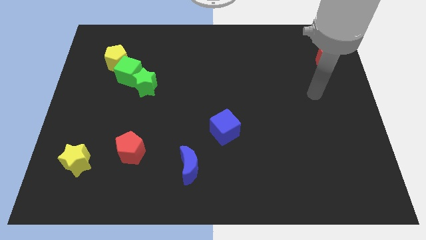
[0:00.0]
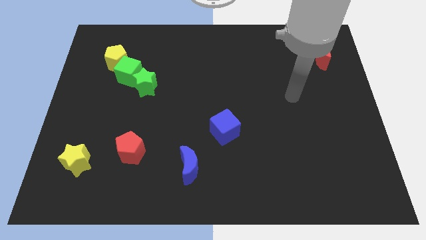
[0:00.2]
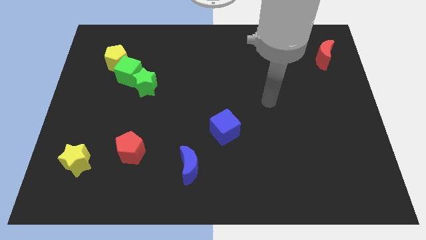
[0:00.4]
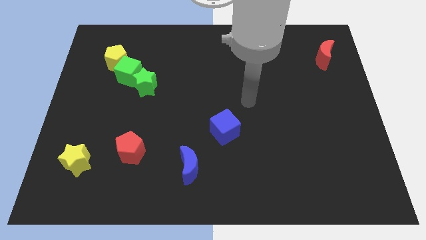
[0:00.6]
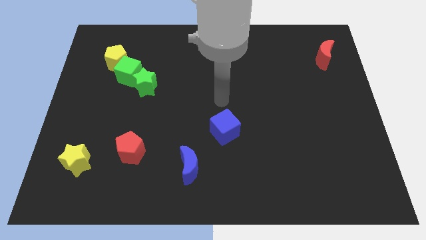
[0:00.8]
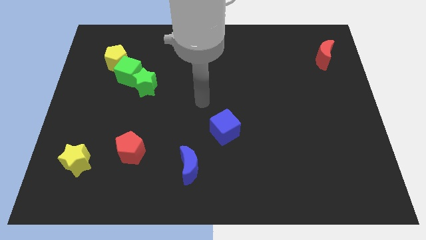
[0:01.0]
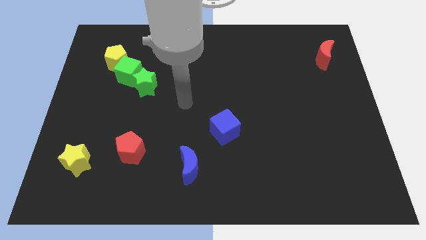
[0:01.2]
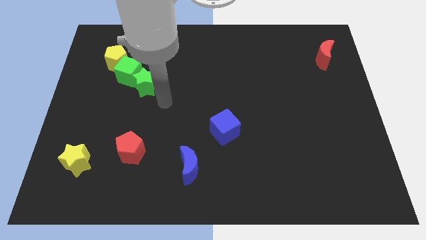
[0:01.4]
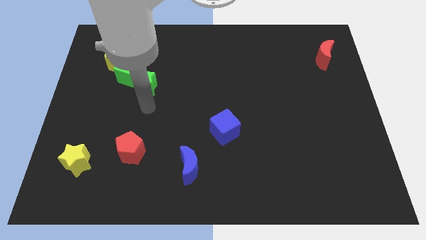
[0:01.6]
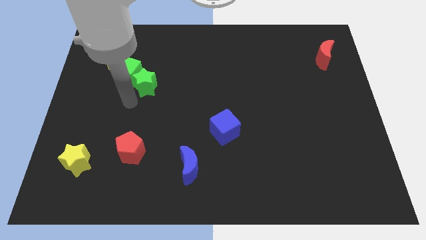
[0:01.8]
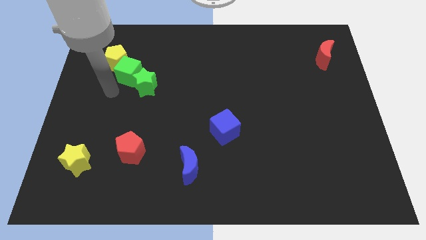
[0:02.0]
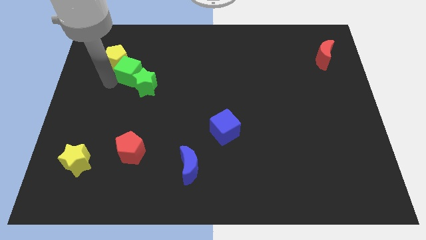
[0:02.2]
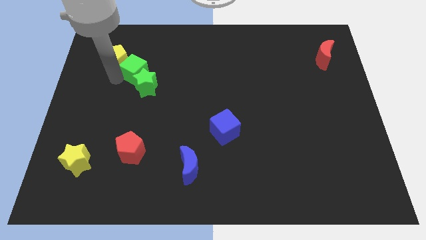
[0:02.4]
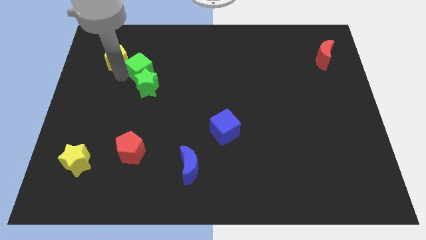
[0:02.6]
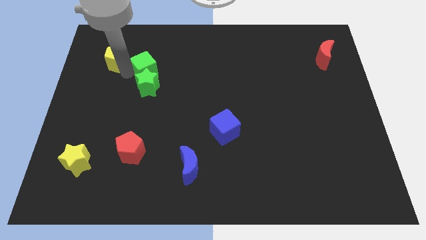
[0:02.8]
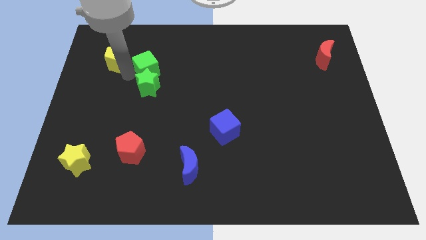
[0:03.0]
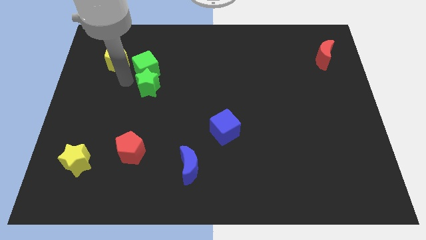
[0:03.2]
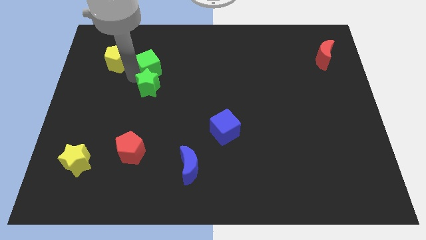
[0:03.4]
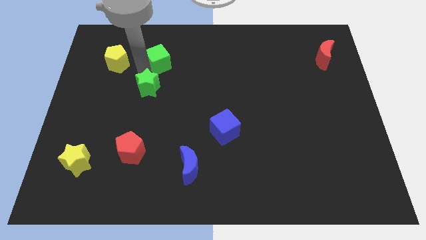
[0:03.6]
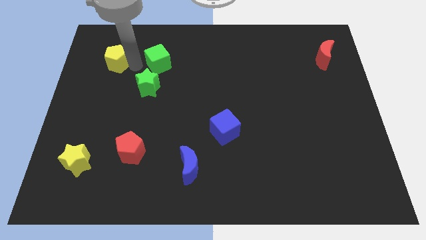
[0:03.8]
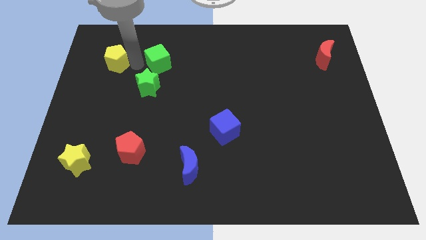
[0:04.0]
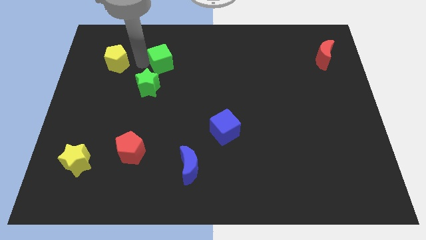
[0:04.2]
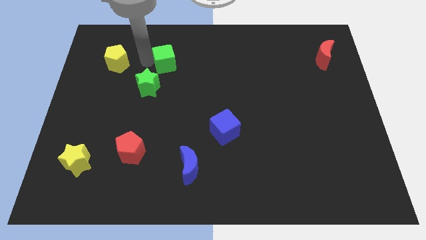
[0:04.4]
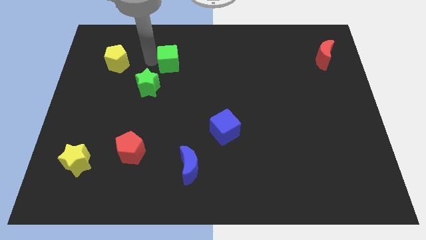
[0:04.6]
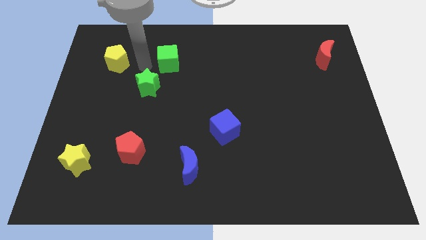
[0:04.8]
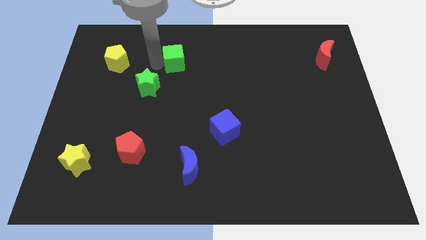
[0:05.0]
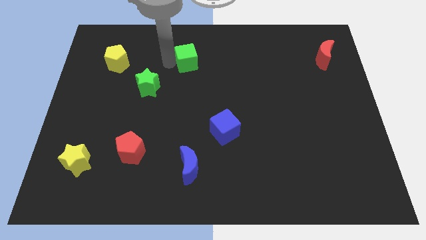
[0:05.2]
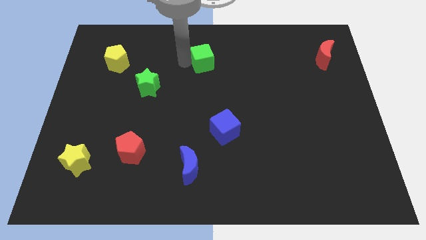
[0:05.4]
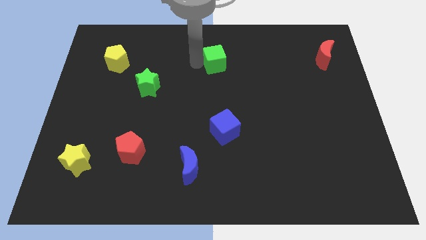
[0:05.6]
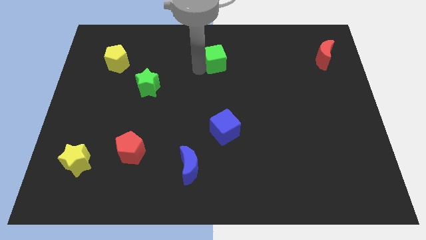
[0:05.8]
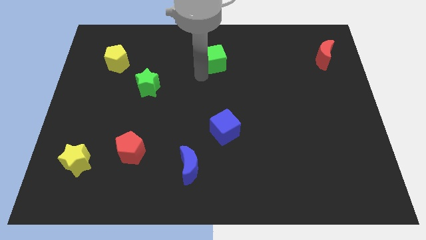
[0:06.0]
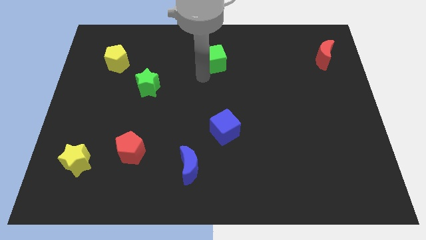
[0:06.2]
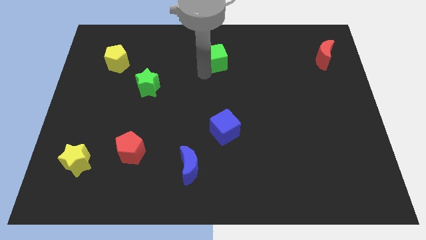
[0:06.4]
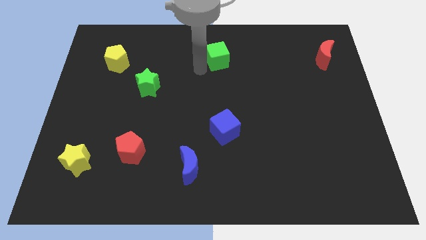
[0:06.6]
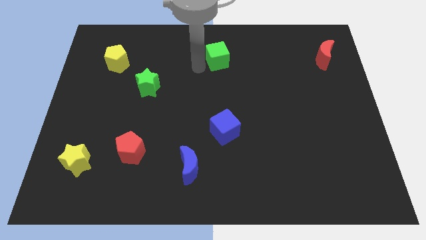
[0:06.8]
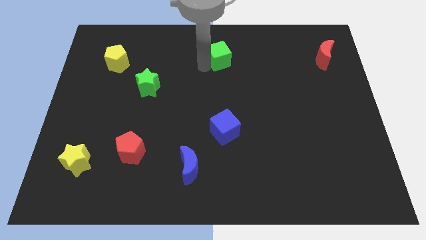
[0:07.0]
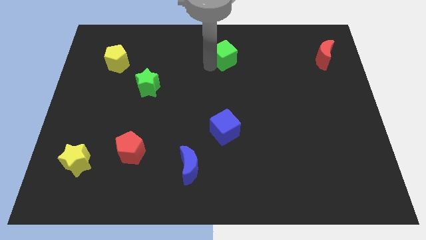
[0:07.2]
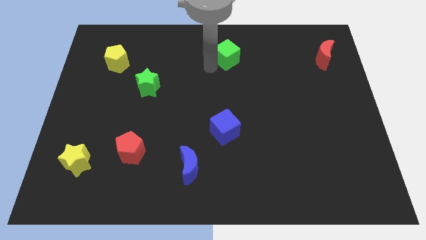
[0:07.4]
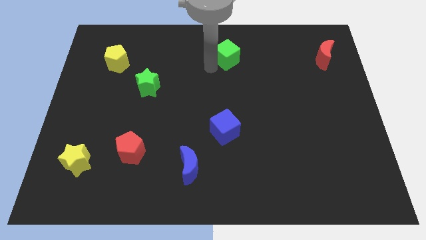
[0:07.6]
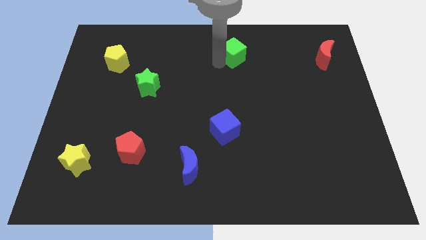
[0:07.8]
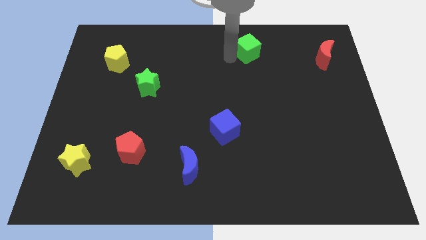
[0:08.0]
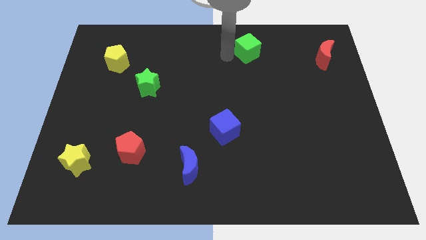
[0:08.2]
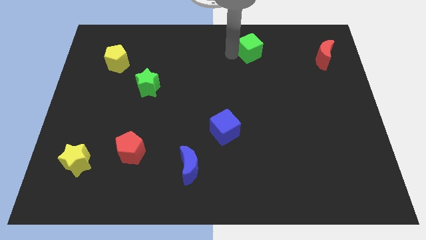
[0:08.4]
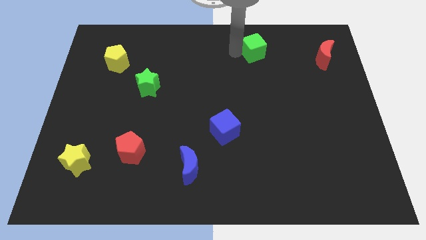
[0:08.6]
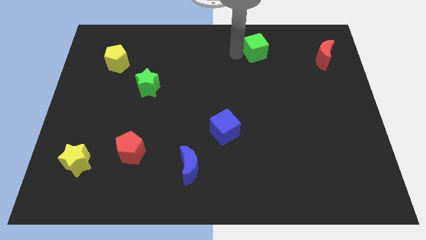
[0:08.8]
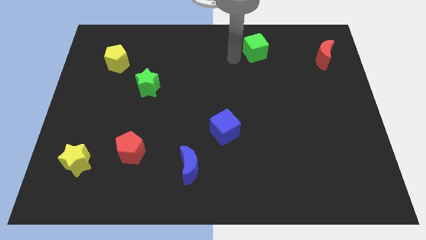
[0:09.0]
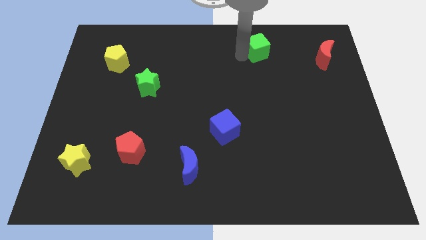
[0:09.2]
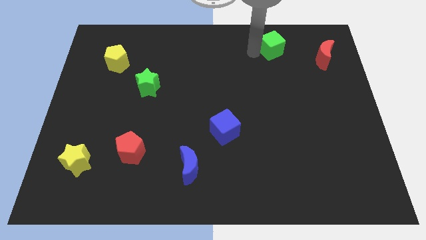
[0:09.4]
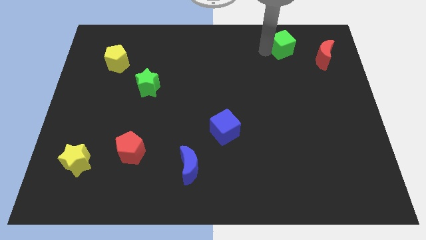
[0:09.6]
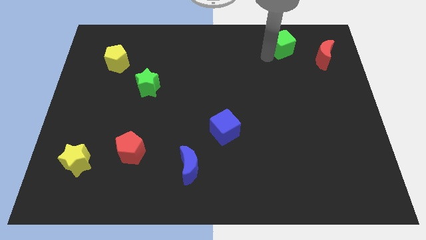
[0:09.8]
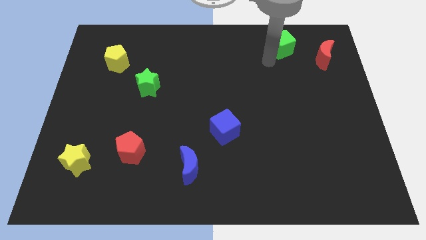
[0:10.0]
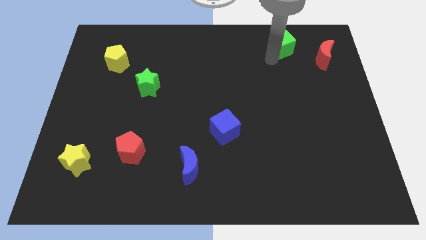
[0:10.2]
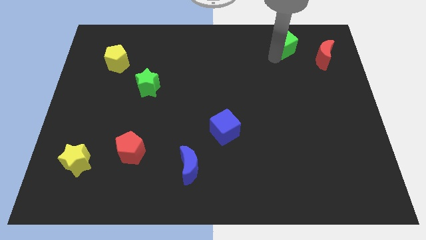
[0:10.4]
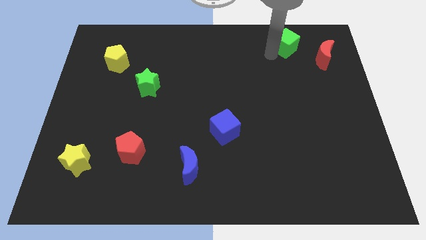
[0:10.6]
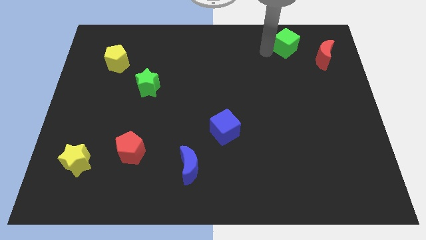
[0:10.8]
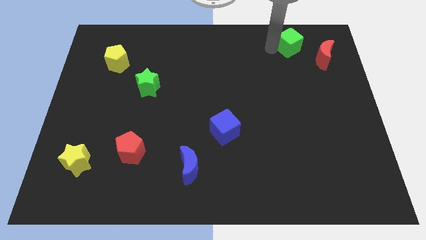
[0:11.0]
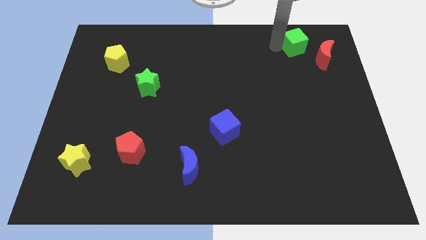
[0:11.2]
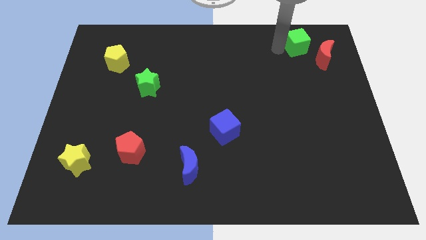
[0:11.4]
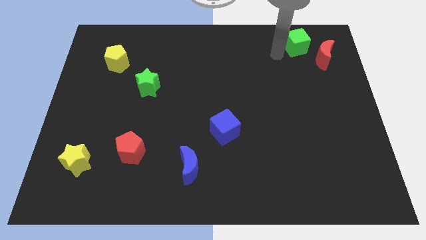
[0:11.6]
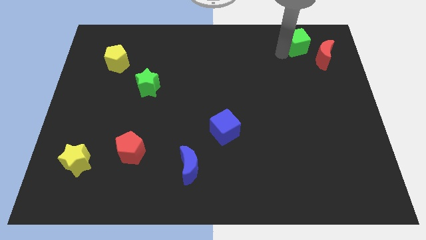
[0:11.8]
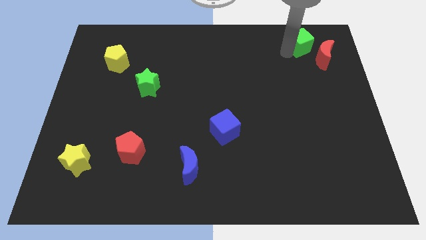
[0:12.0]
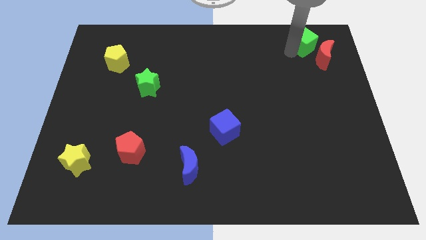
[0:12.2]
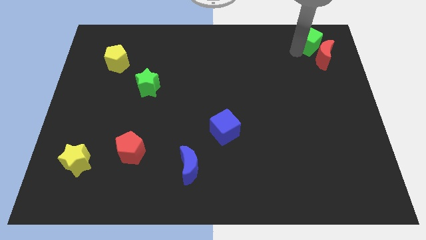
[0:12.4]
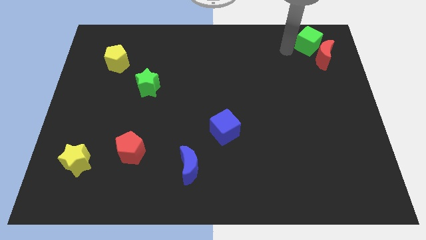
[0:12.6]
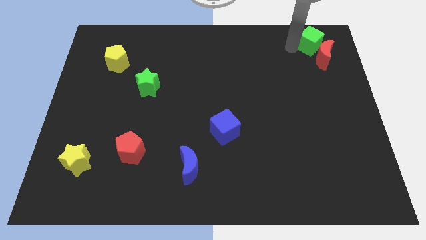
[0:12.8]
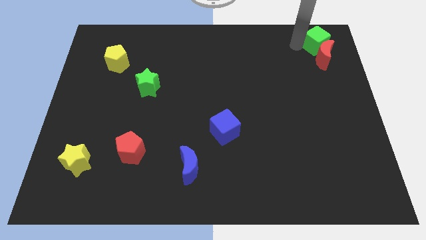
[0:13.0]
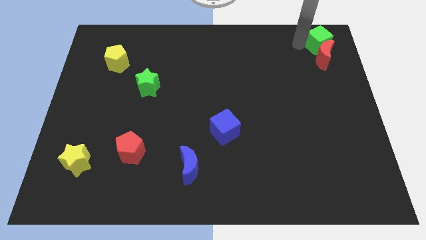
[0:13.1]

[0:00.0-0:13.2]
put the green cube to the top right
